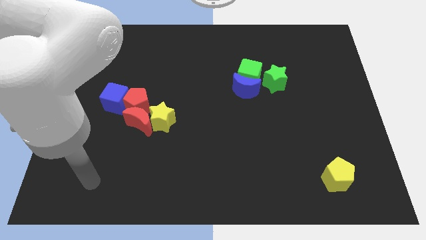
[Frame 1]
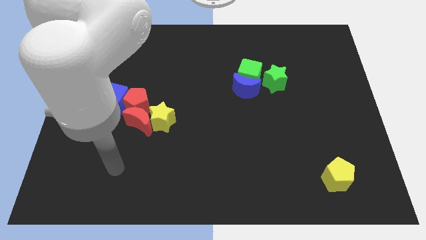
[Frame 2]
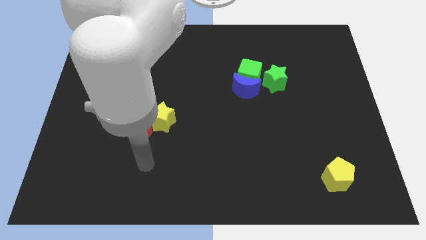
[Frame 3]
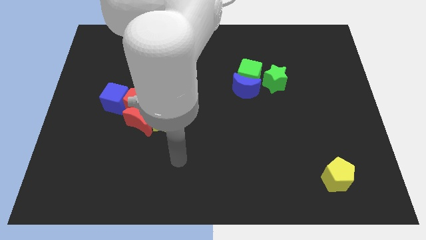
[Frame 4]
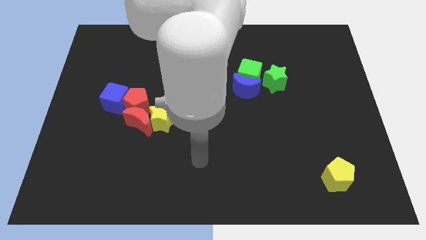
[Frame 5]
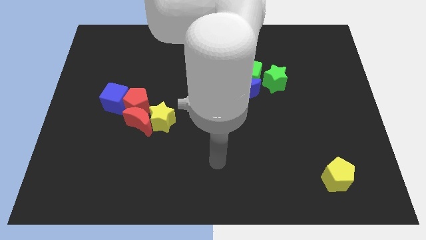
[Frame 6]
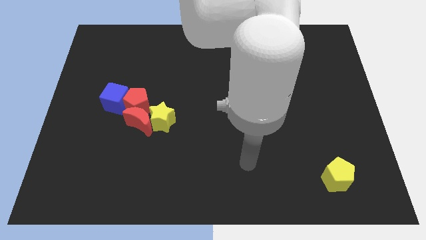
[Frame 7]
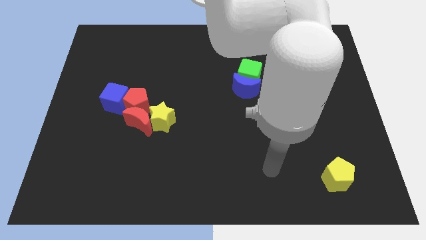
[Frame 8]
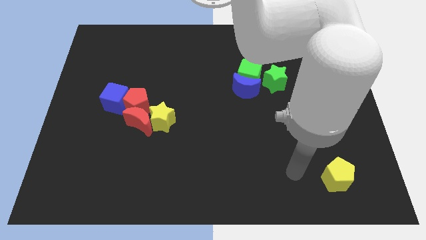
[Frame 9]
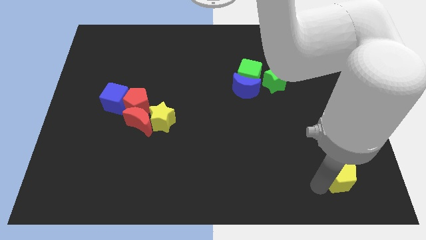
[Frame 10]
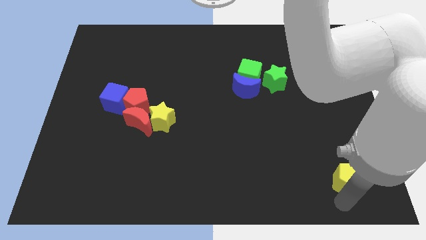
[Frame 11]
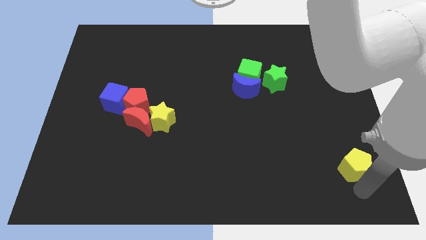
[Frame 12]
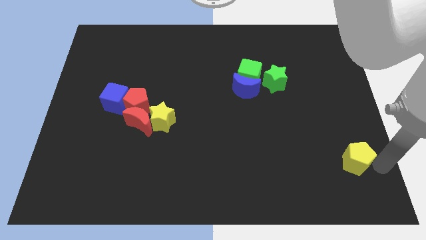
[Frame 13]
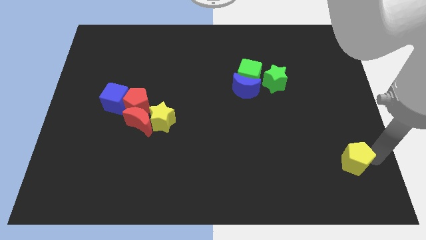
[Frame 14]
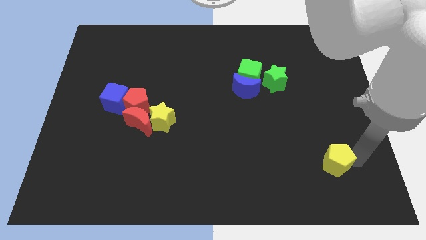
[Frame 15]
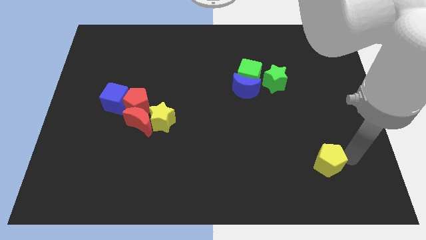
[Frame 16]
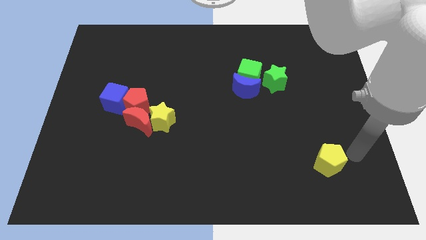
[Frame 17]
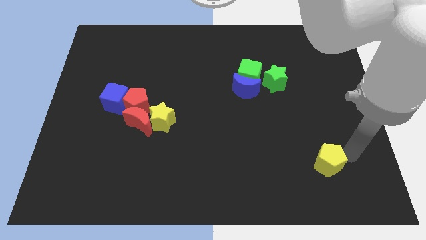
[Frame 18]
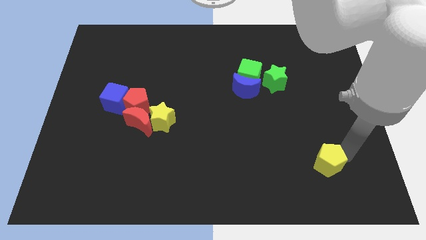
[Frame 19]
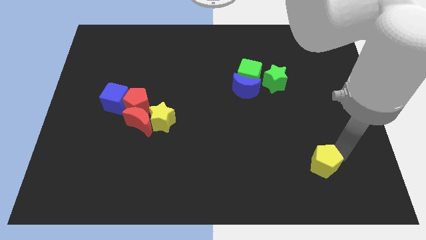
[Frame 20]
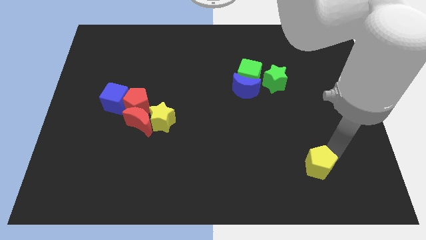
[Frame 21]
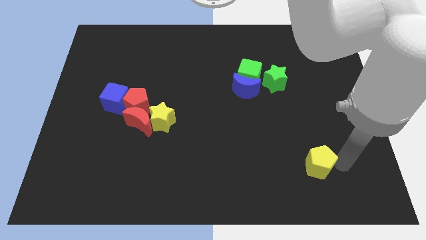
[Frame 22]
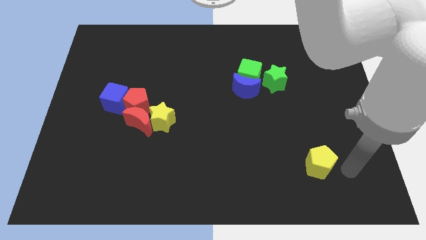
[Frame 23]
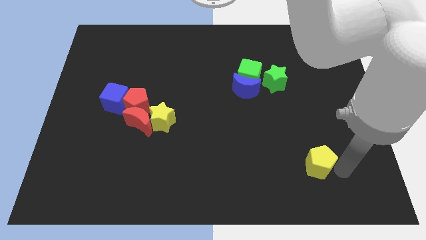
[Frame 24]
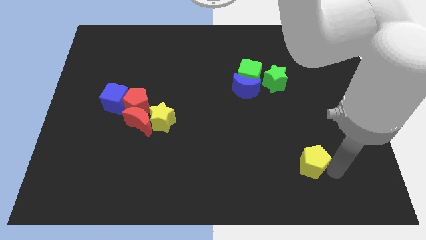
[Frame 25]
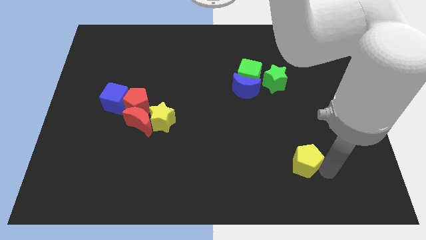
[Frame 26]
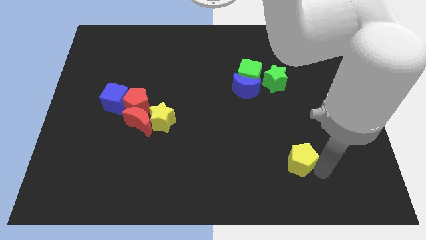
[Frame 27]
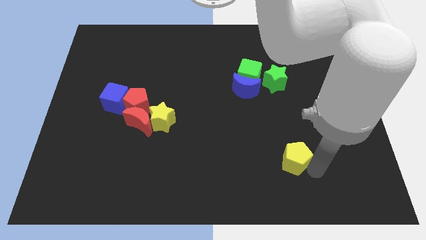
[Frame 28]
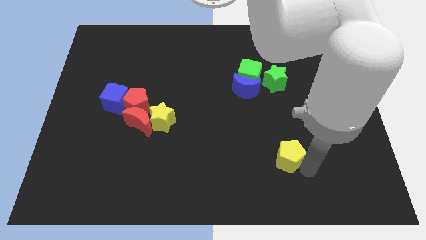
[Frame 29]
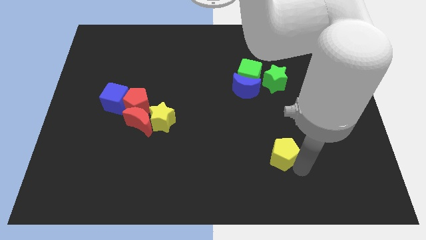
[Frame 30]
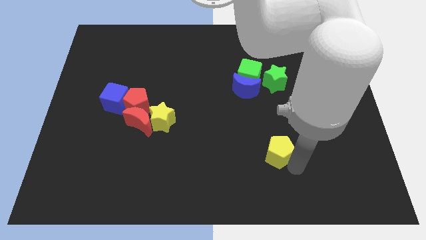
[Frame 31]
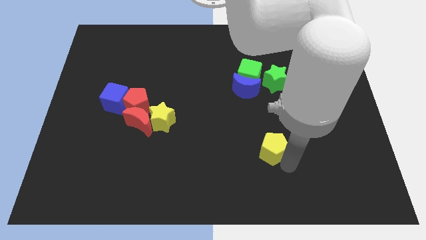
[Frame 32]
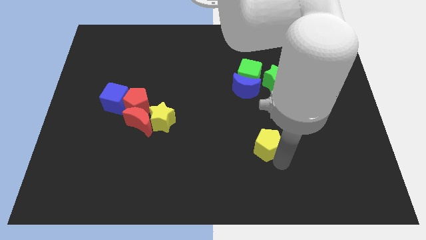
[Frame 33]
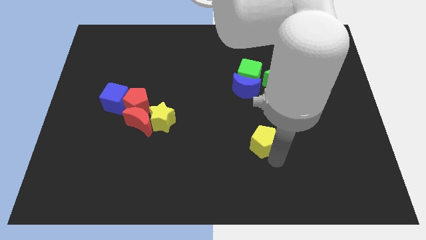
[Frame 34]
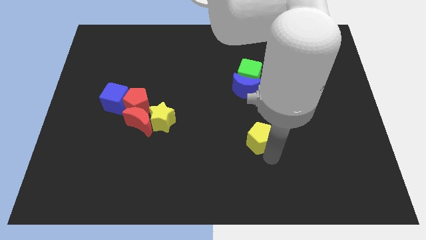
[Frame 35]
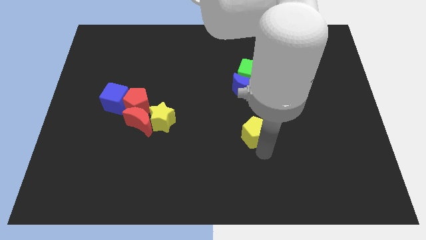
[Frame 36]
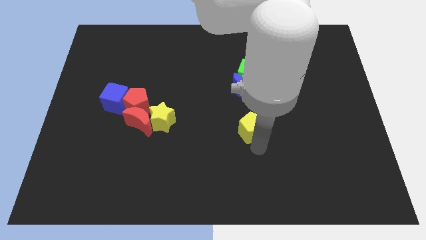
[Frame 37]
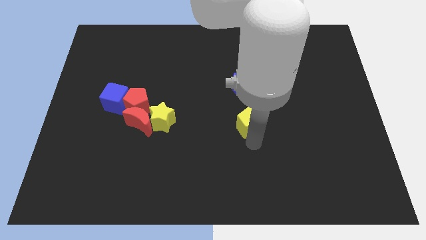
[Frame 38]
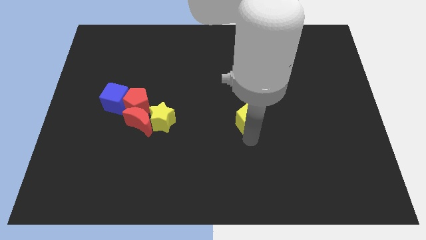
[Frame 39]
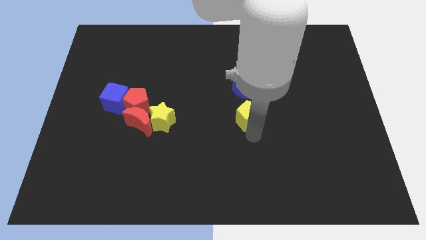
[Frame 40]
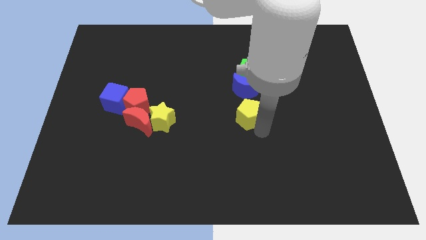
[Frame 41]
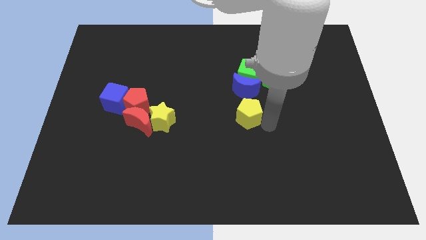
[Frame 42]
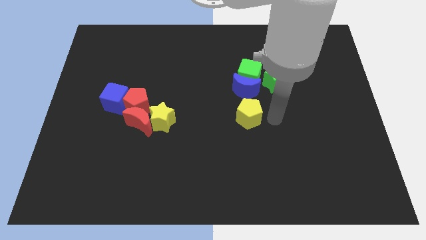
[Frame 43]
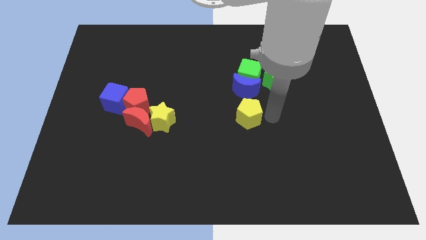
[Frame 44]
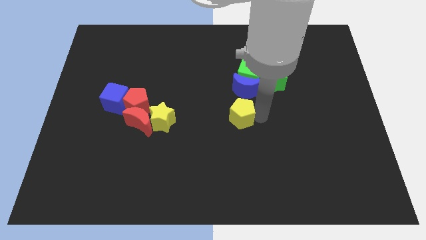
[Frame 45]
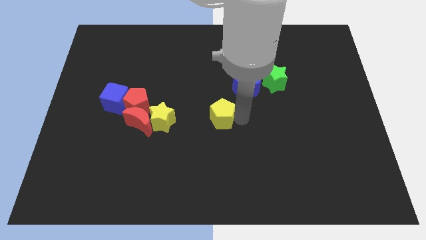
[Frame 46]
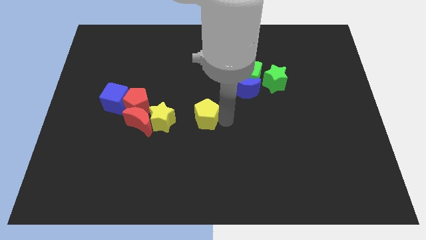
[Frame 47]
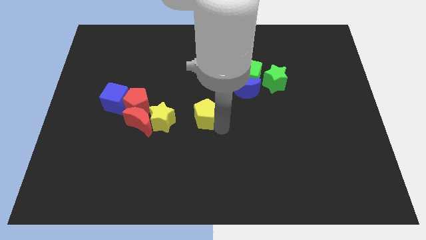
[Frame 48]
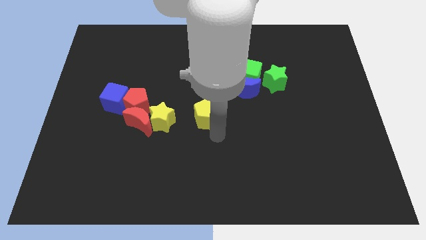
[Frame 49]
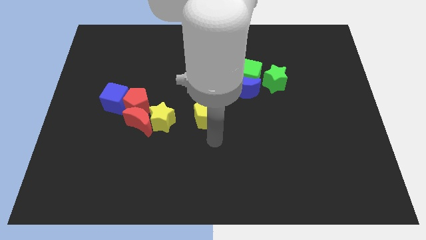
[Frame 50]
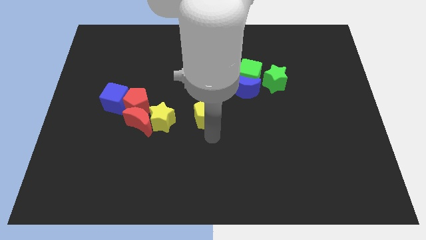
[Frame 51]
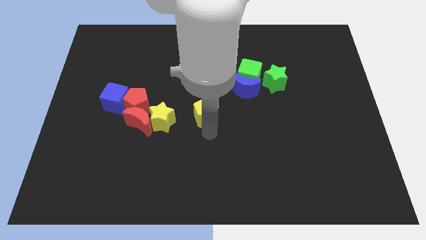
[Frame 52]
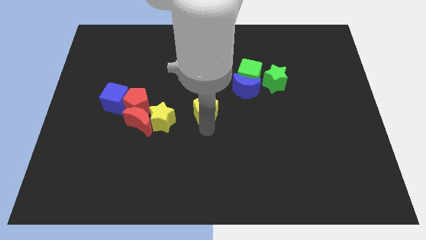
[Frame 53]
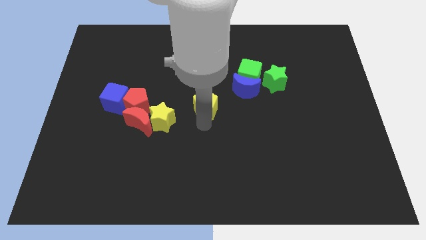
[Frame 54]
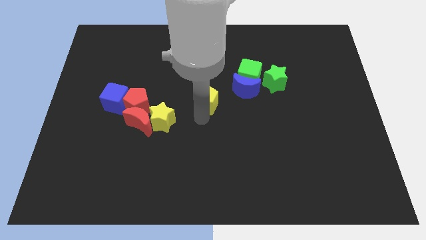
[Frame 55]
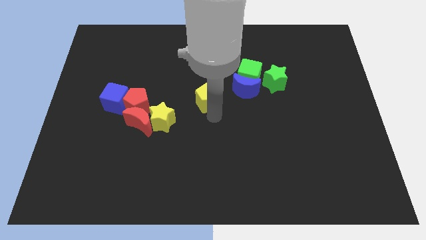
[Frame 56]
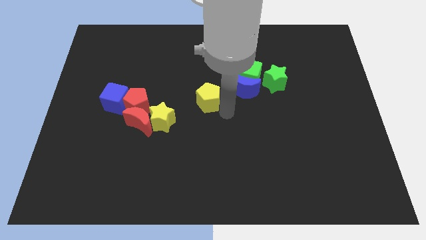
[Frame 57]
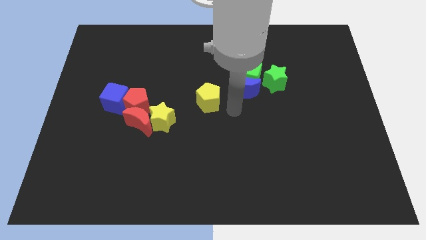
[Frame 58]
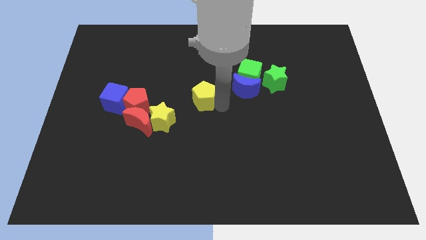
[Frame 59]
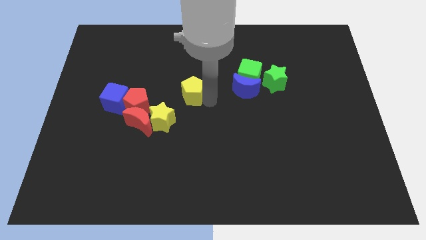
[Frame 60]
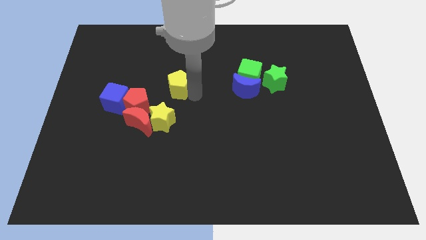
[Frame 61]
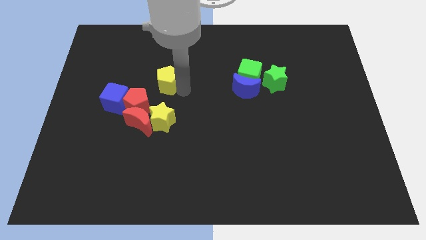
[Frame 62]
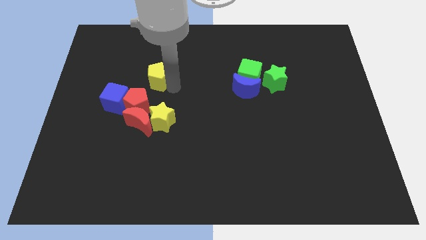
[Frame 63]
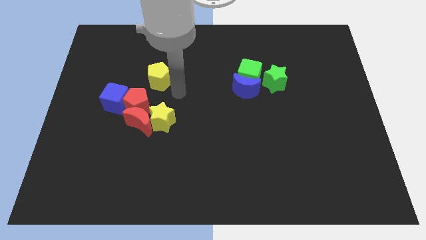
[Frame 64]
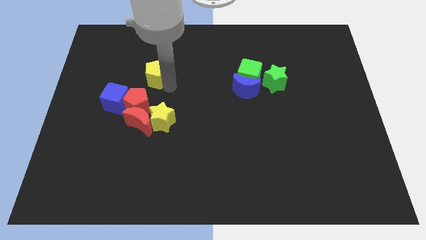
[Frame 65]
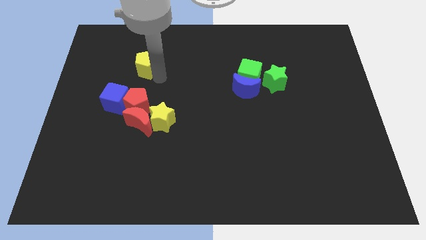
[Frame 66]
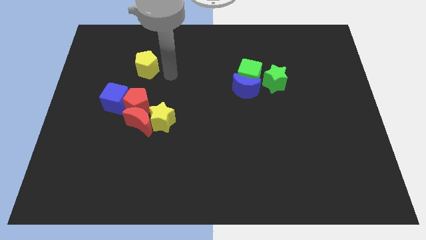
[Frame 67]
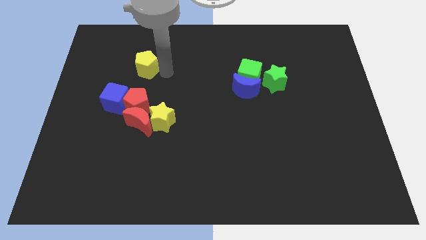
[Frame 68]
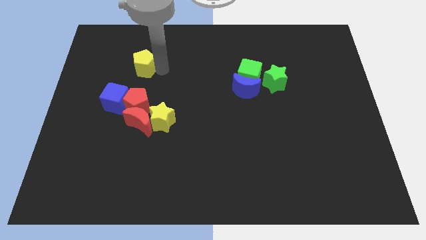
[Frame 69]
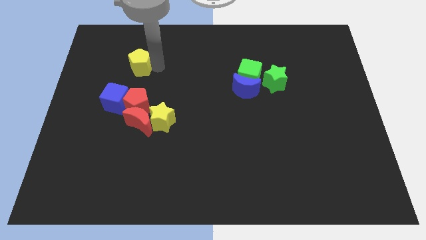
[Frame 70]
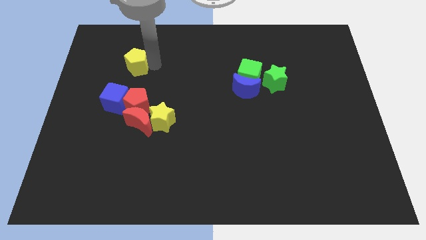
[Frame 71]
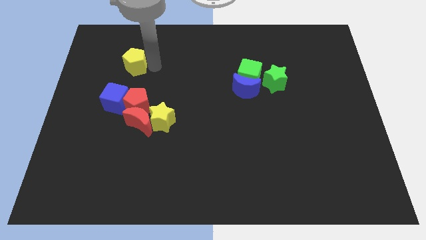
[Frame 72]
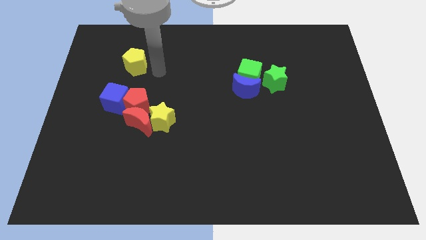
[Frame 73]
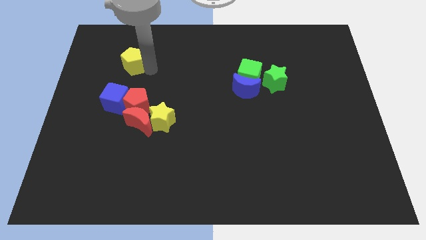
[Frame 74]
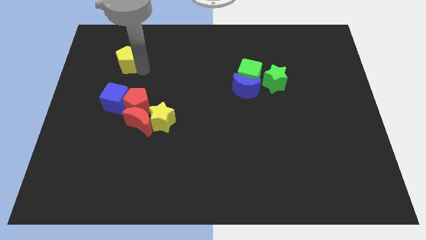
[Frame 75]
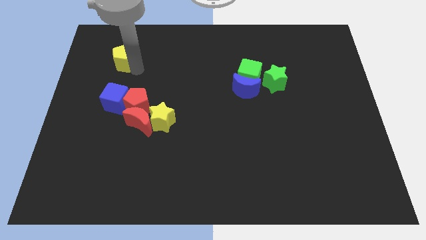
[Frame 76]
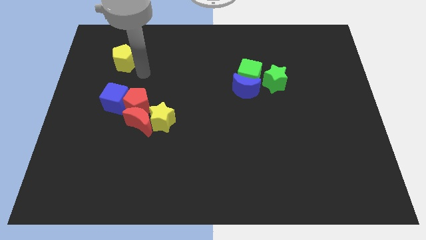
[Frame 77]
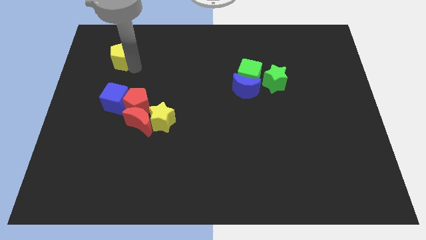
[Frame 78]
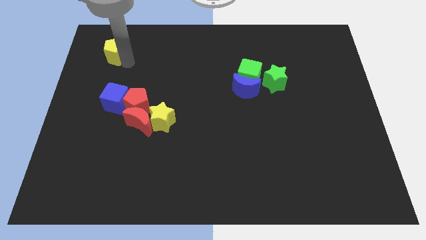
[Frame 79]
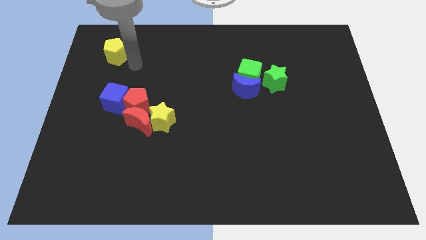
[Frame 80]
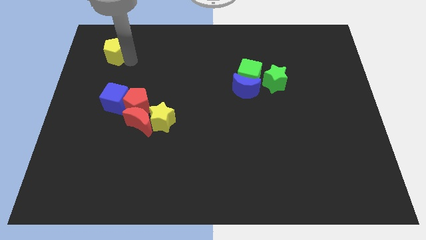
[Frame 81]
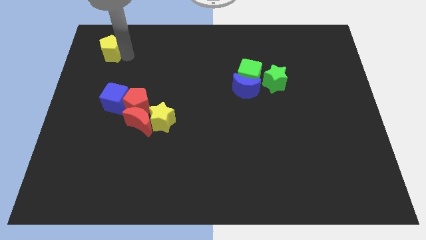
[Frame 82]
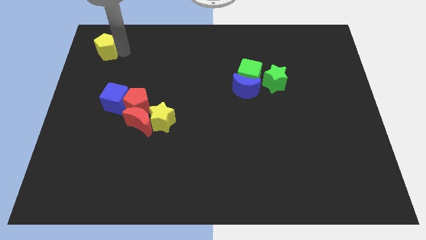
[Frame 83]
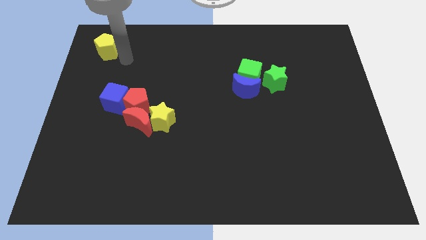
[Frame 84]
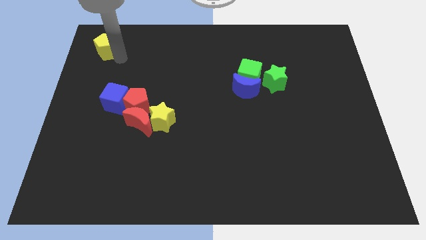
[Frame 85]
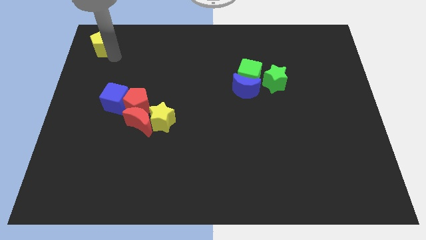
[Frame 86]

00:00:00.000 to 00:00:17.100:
slide the yellow pentagon to the top left corner
